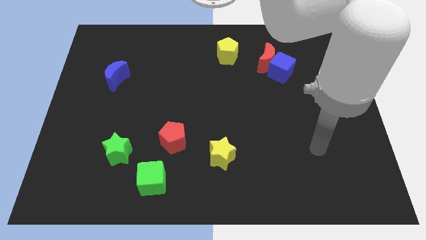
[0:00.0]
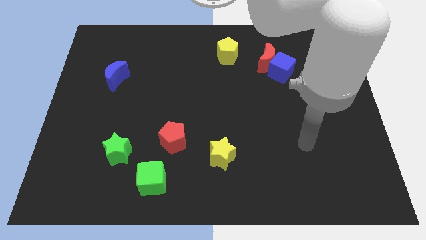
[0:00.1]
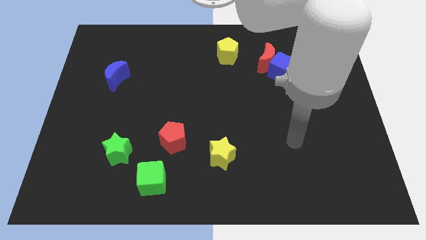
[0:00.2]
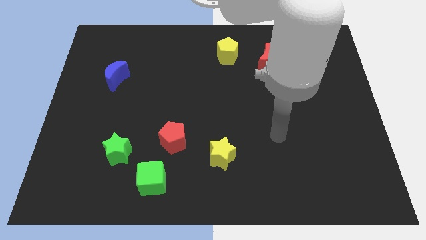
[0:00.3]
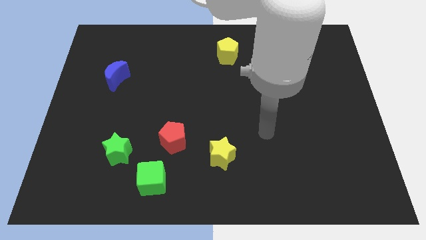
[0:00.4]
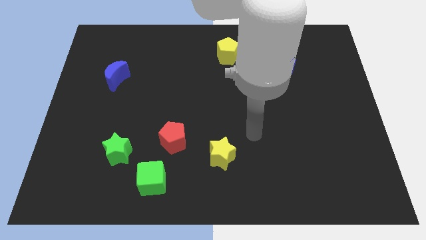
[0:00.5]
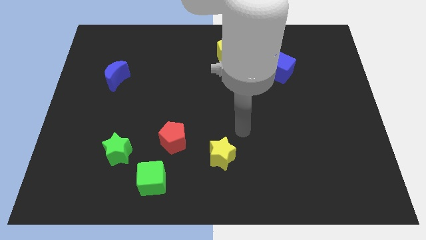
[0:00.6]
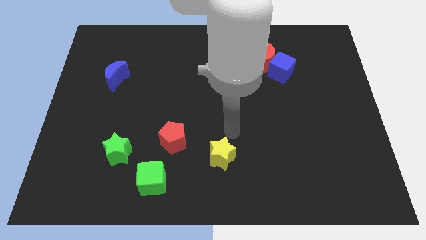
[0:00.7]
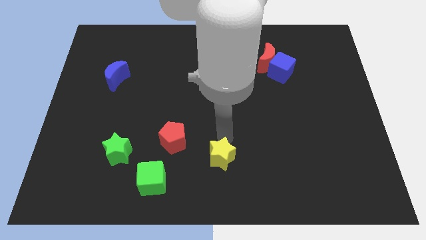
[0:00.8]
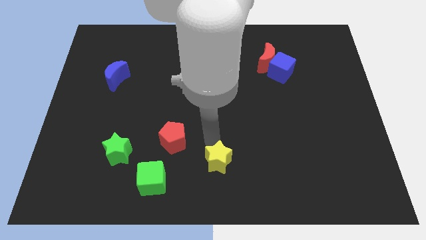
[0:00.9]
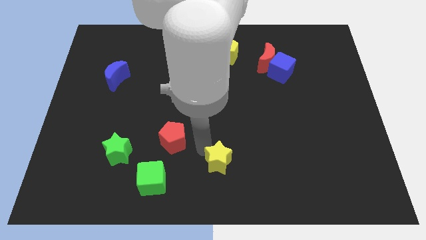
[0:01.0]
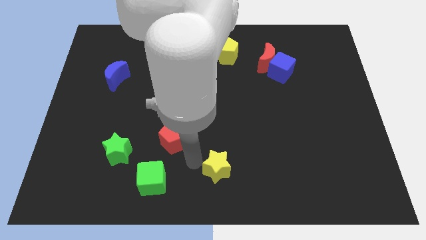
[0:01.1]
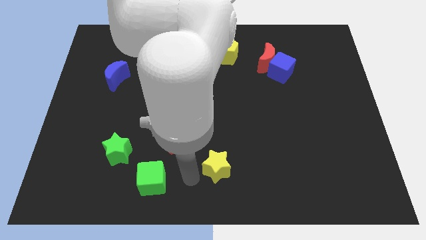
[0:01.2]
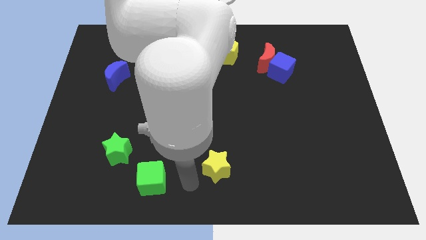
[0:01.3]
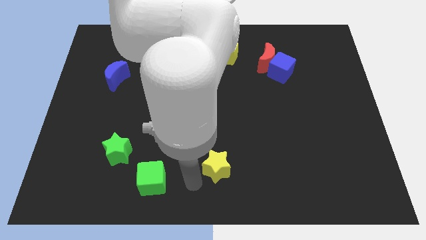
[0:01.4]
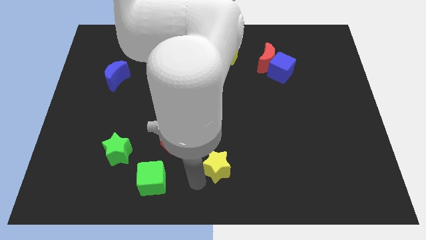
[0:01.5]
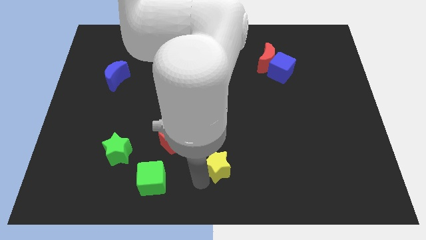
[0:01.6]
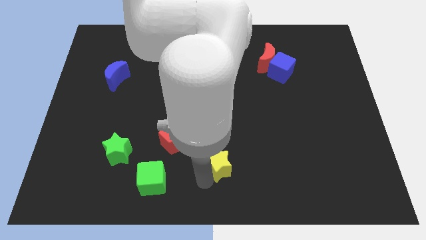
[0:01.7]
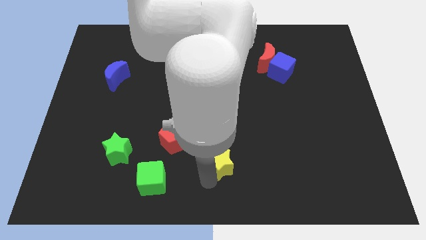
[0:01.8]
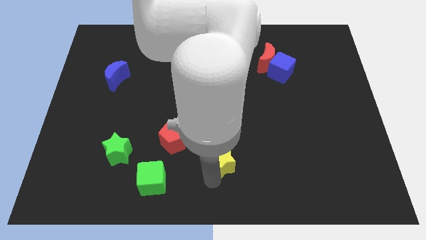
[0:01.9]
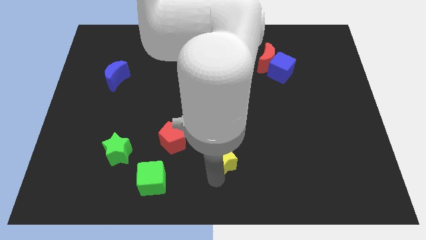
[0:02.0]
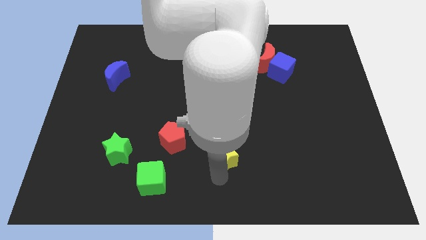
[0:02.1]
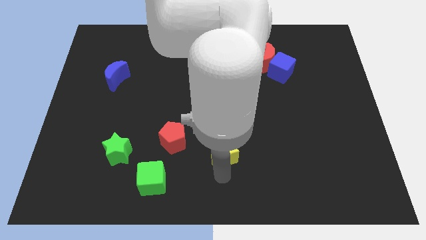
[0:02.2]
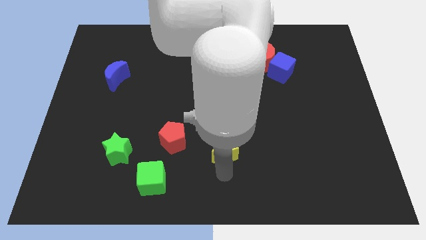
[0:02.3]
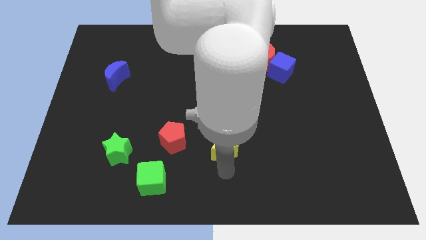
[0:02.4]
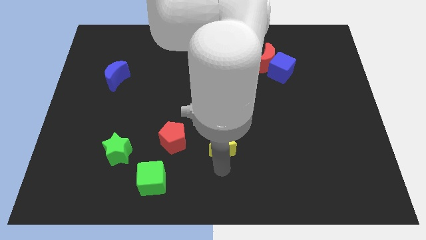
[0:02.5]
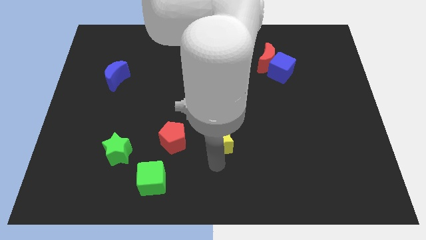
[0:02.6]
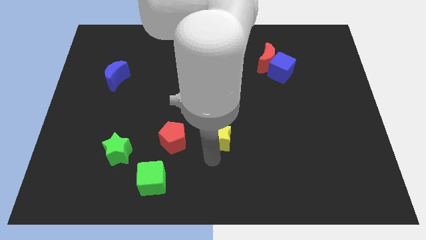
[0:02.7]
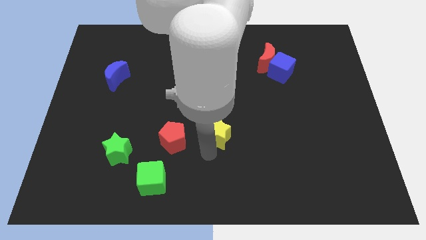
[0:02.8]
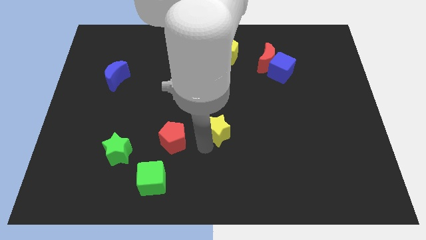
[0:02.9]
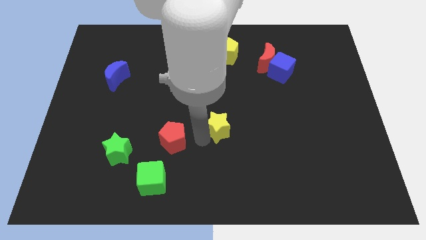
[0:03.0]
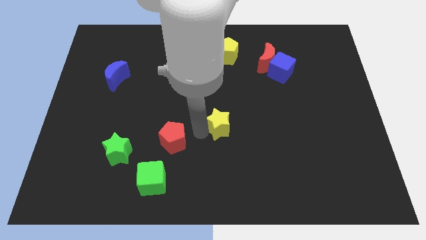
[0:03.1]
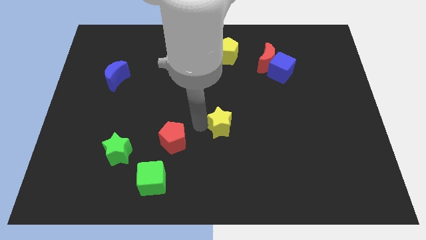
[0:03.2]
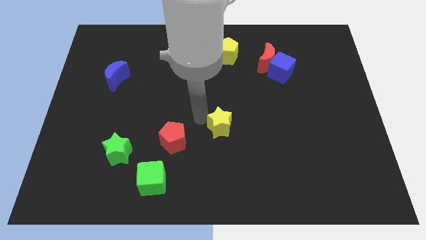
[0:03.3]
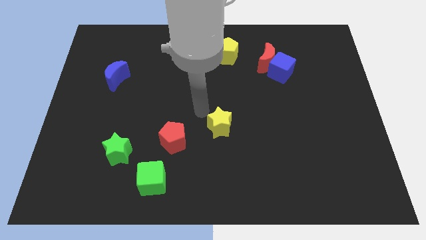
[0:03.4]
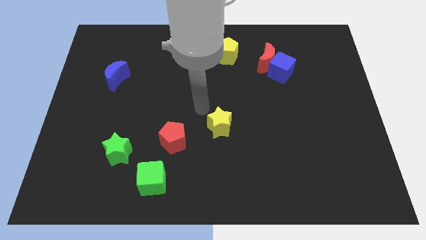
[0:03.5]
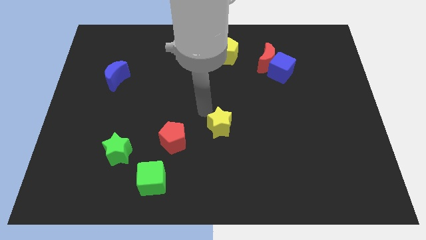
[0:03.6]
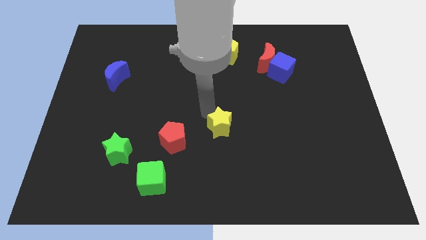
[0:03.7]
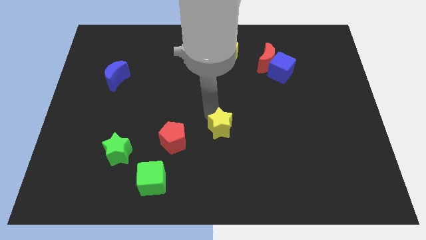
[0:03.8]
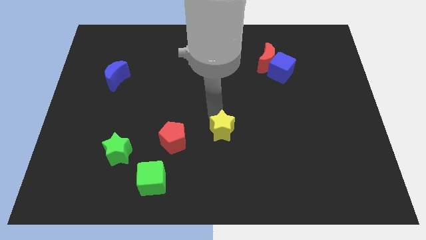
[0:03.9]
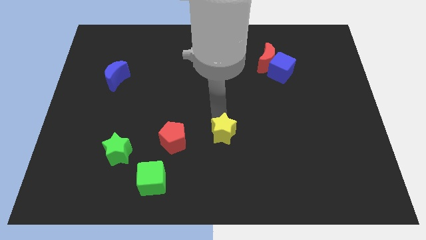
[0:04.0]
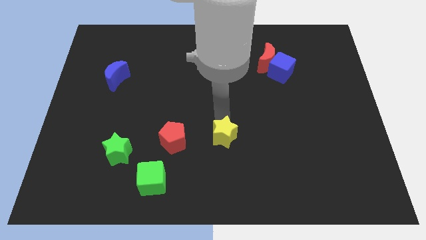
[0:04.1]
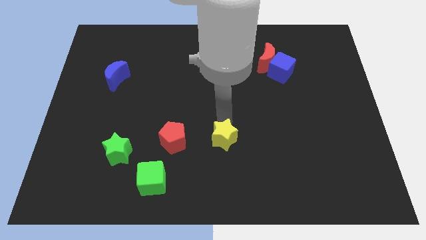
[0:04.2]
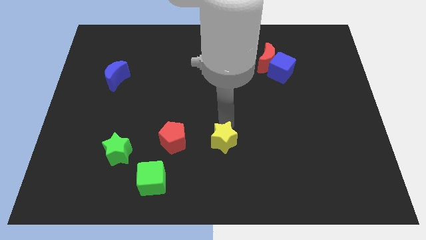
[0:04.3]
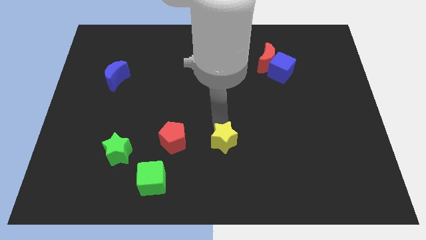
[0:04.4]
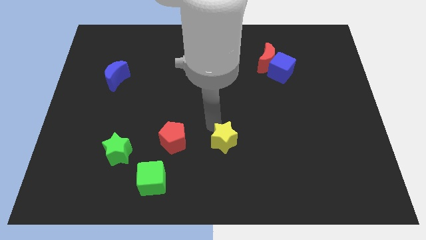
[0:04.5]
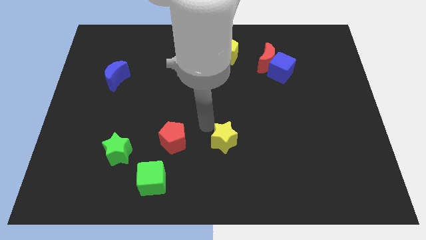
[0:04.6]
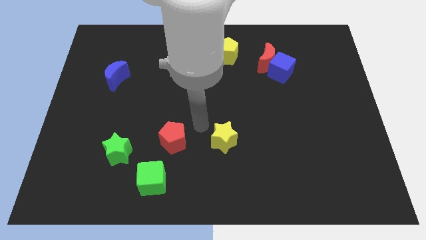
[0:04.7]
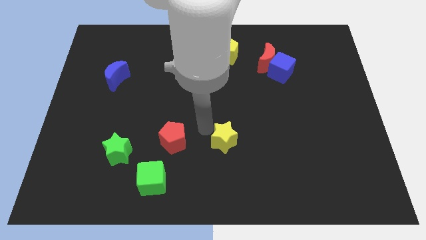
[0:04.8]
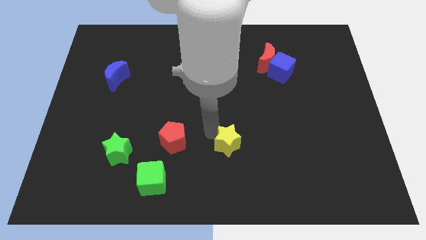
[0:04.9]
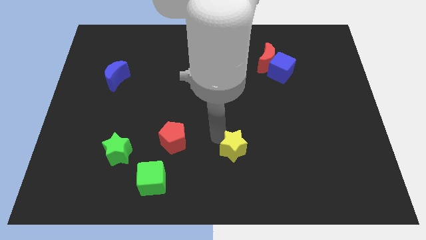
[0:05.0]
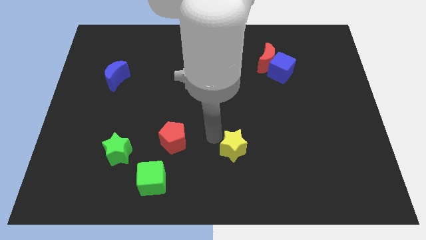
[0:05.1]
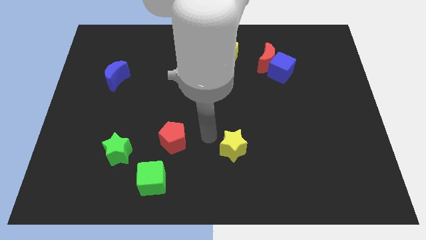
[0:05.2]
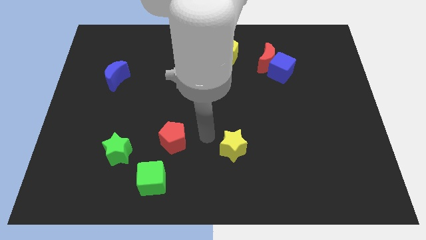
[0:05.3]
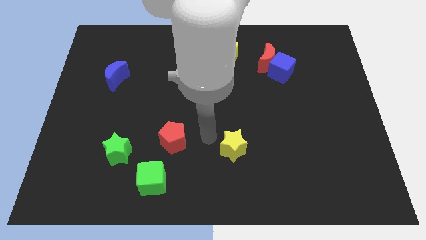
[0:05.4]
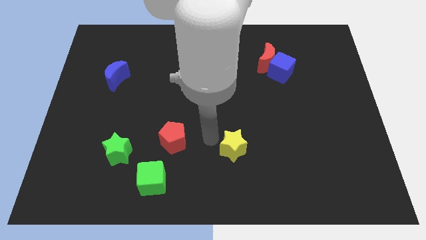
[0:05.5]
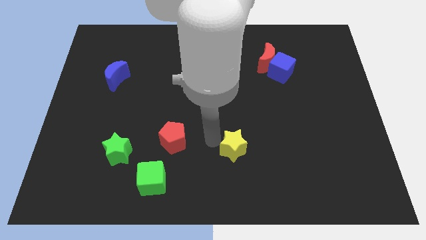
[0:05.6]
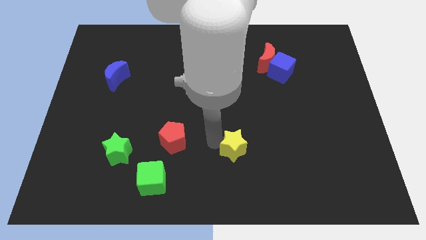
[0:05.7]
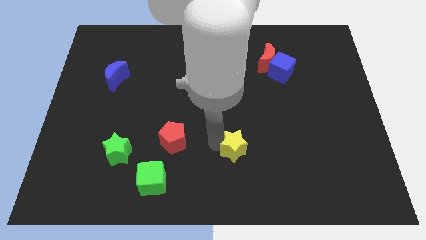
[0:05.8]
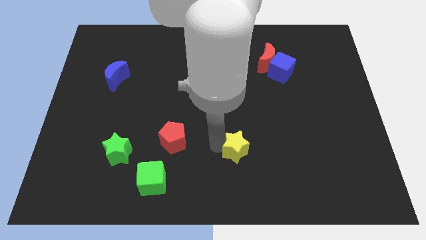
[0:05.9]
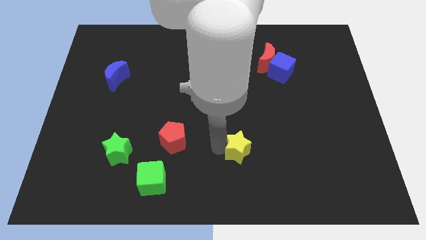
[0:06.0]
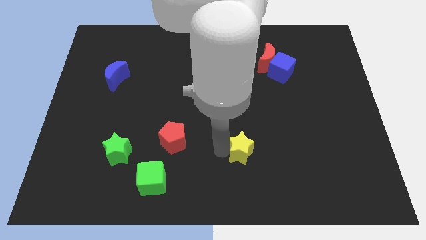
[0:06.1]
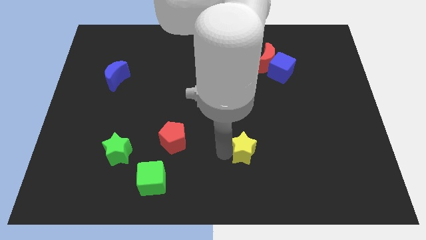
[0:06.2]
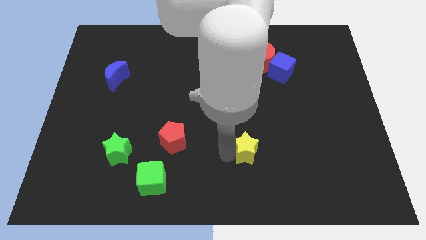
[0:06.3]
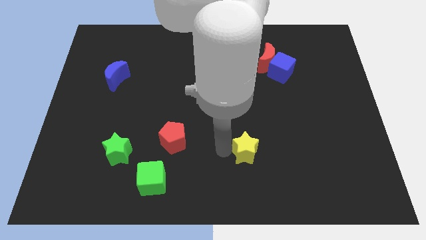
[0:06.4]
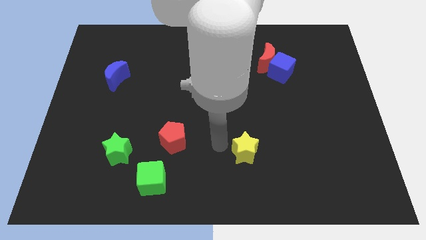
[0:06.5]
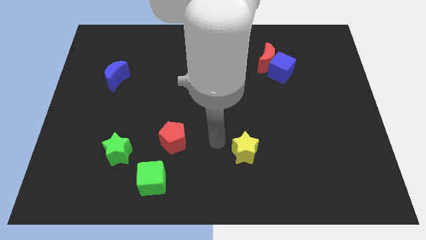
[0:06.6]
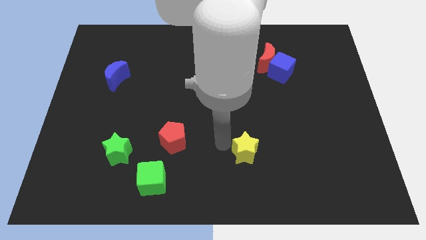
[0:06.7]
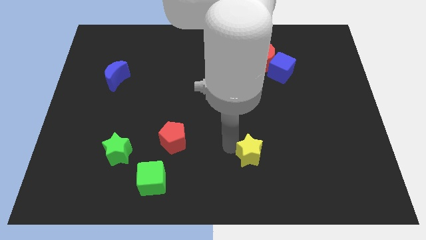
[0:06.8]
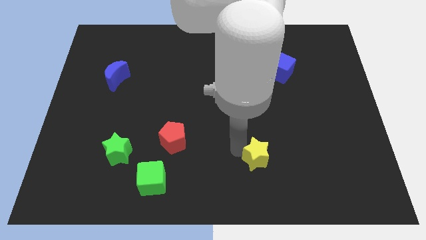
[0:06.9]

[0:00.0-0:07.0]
push the yellow star a little bit right

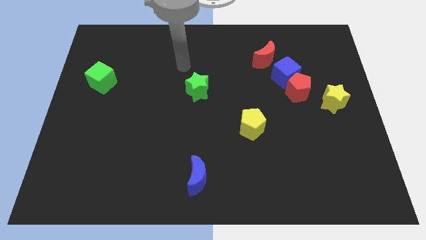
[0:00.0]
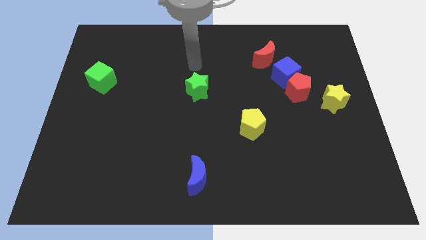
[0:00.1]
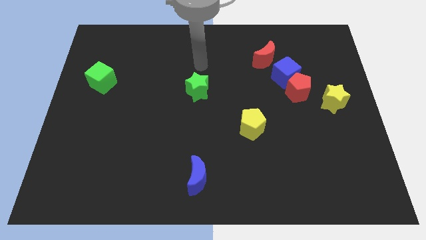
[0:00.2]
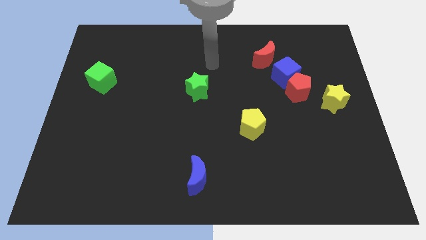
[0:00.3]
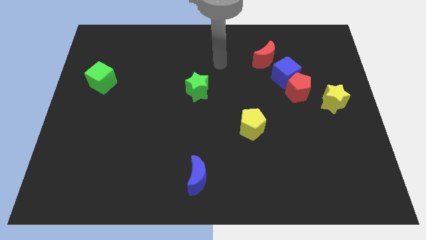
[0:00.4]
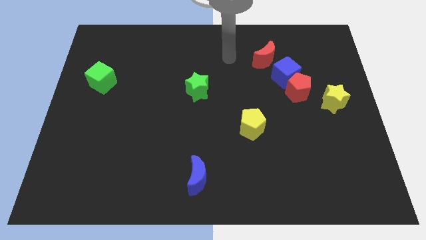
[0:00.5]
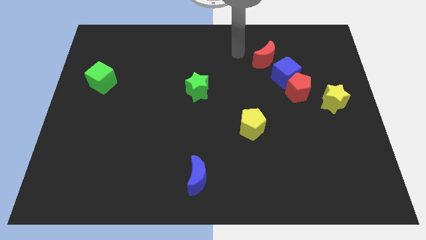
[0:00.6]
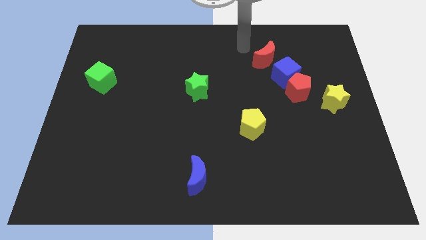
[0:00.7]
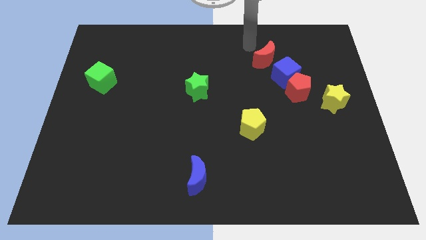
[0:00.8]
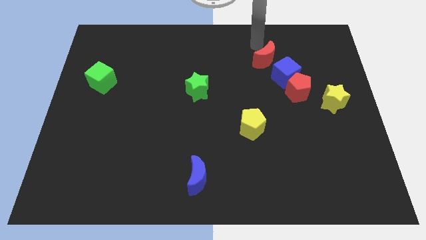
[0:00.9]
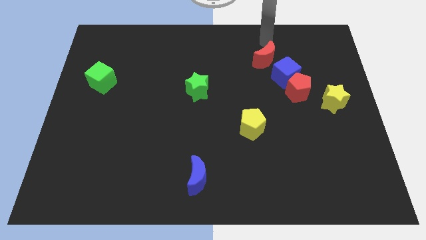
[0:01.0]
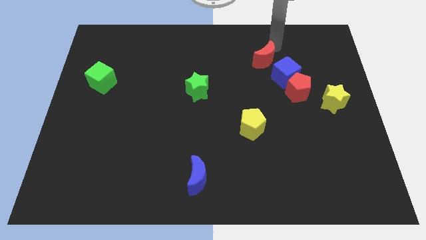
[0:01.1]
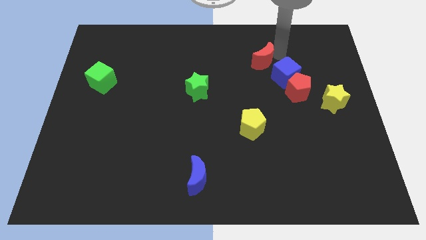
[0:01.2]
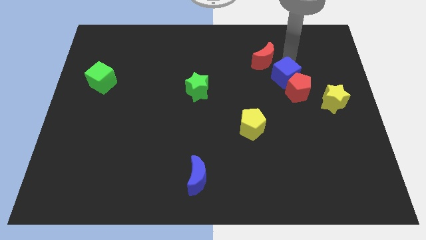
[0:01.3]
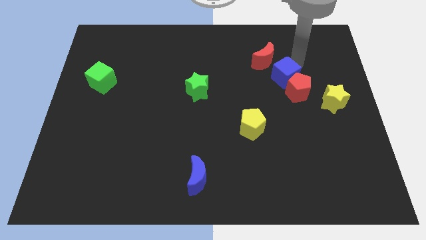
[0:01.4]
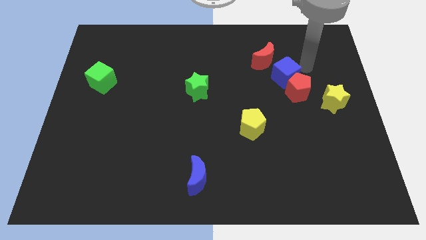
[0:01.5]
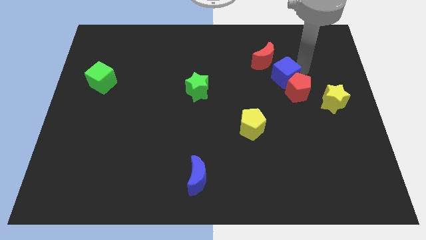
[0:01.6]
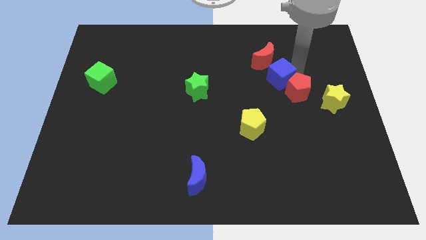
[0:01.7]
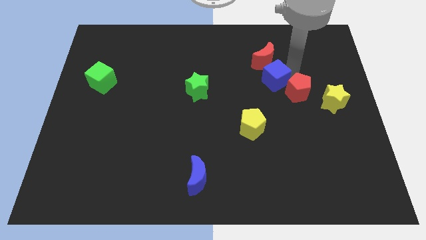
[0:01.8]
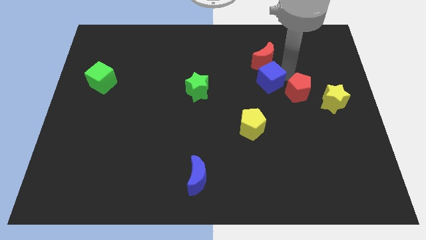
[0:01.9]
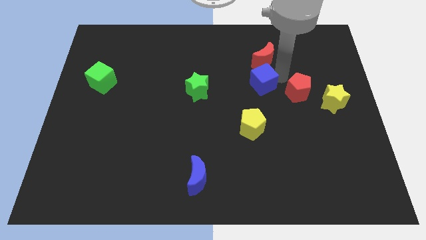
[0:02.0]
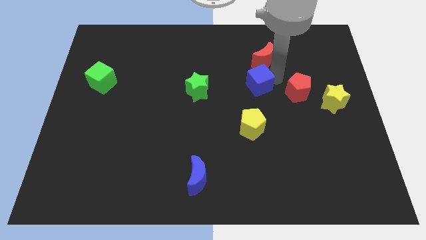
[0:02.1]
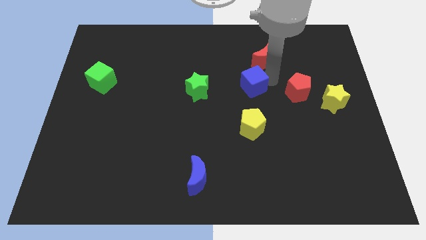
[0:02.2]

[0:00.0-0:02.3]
move the blue cube slightly diagonally down and to the left
